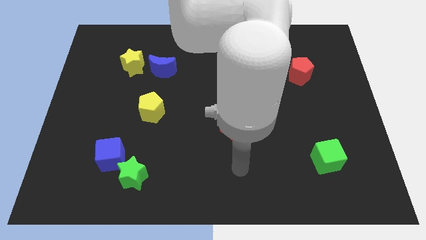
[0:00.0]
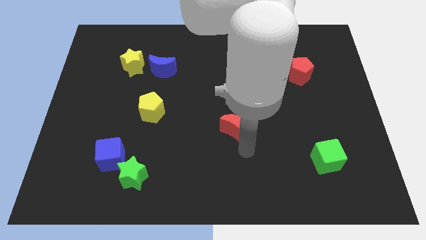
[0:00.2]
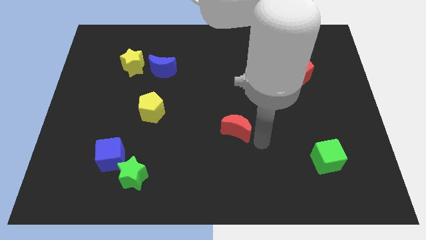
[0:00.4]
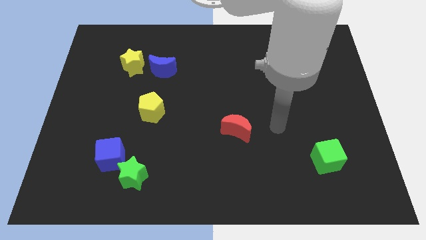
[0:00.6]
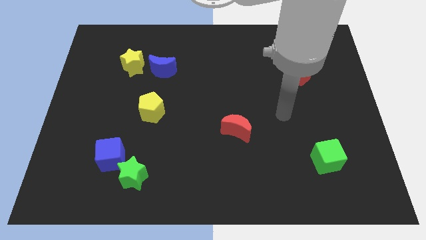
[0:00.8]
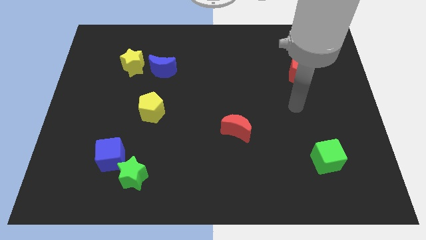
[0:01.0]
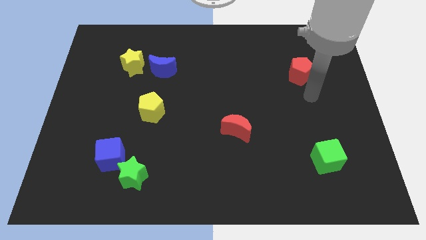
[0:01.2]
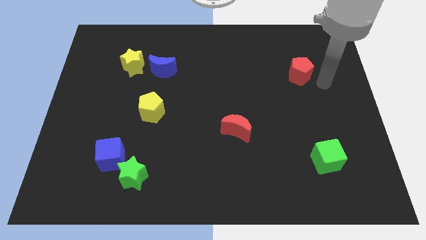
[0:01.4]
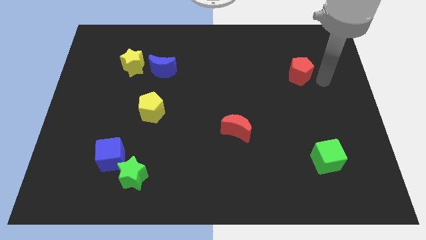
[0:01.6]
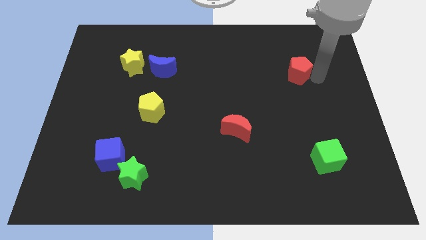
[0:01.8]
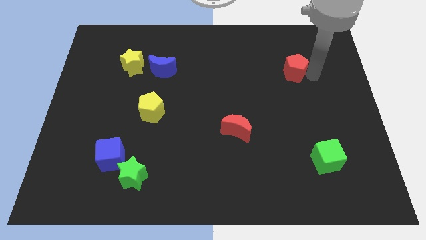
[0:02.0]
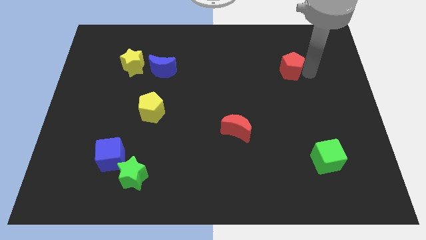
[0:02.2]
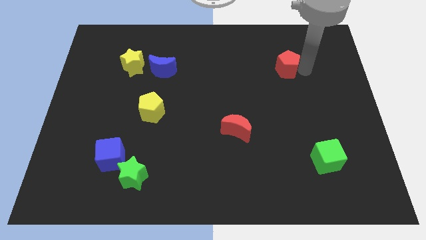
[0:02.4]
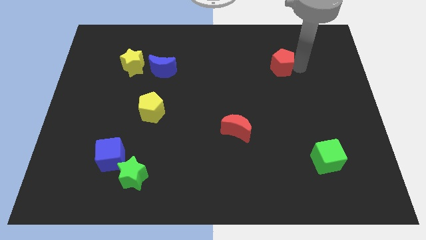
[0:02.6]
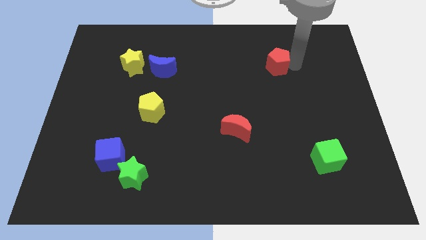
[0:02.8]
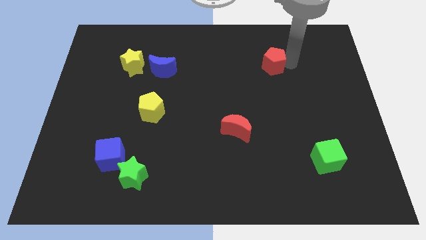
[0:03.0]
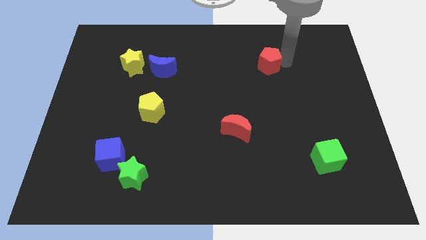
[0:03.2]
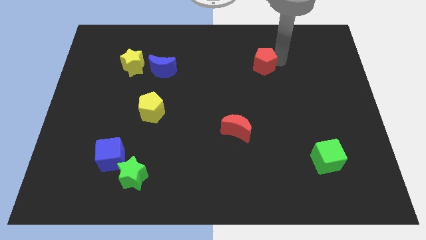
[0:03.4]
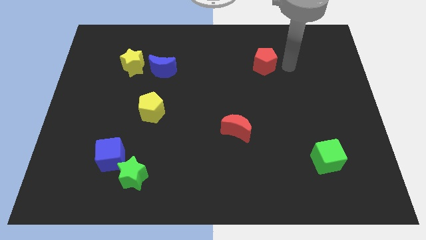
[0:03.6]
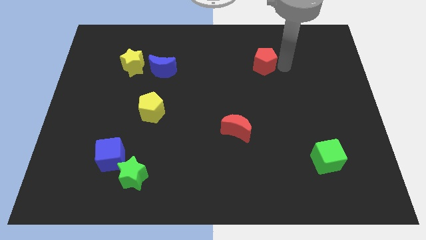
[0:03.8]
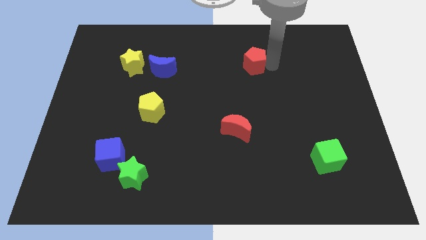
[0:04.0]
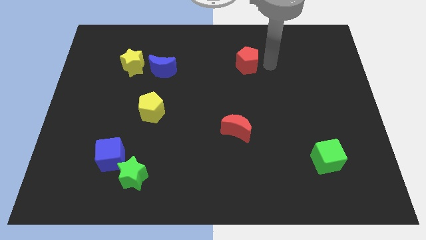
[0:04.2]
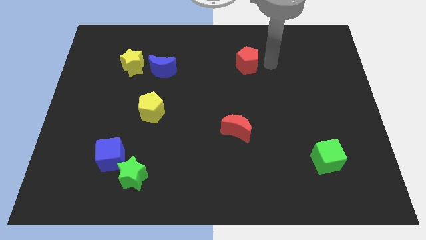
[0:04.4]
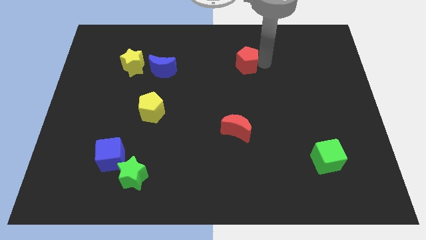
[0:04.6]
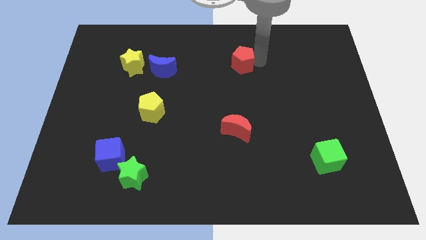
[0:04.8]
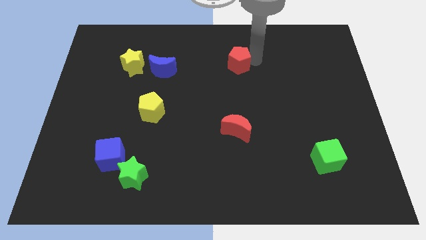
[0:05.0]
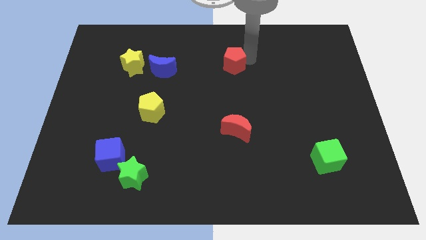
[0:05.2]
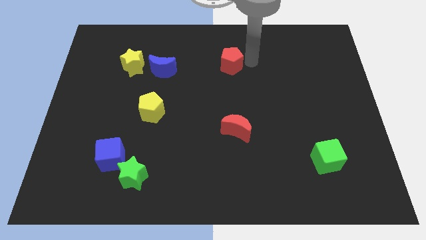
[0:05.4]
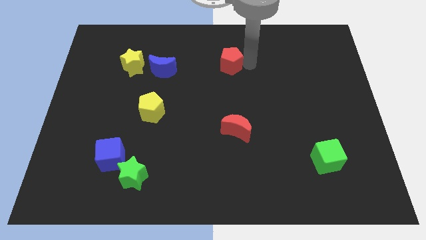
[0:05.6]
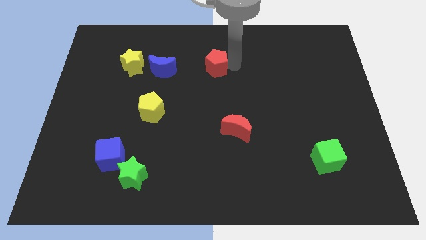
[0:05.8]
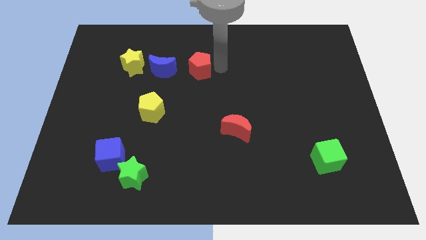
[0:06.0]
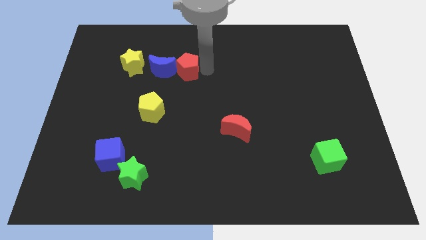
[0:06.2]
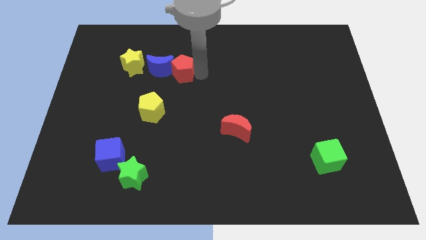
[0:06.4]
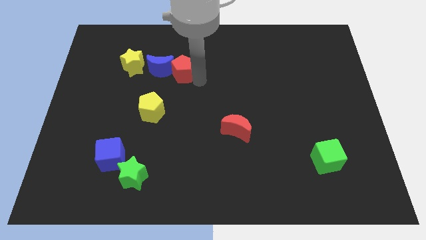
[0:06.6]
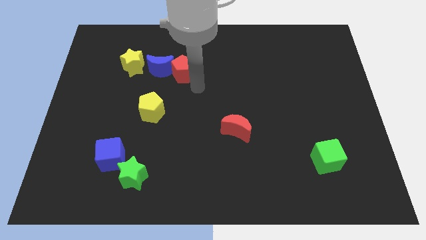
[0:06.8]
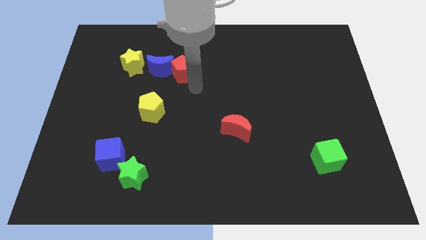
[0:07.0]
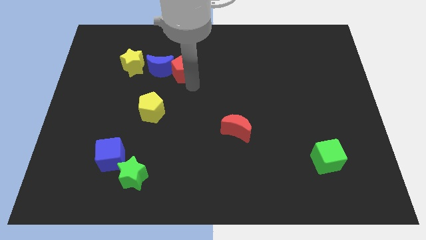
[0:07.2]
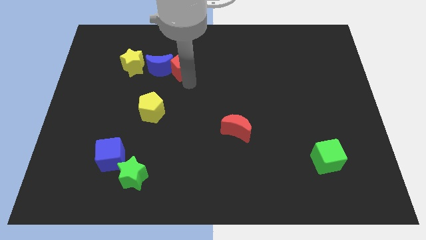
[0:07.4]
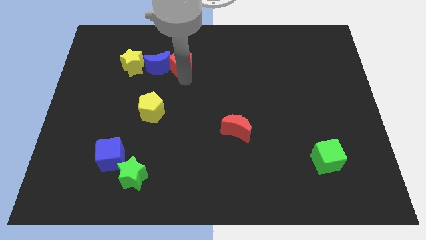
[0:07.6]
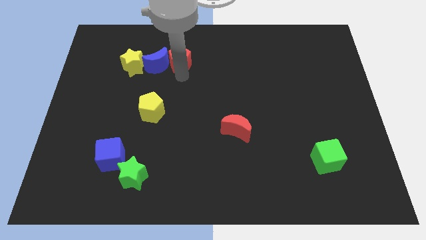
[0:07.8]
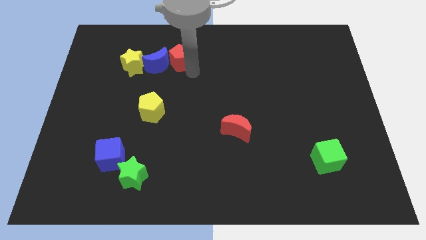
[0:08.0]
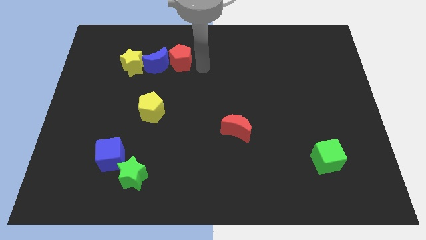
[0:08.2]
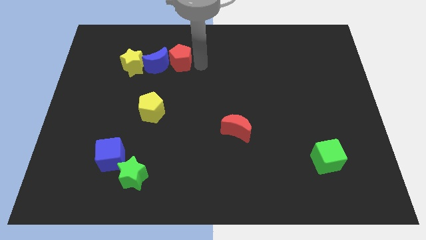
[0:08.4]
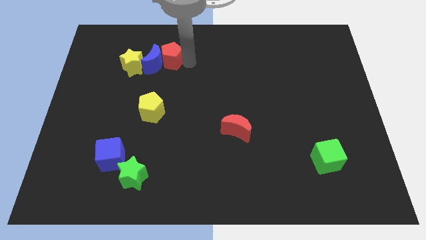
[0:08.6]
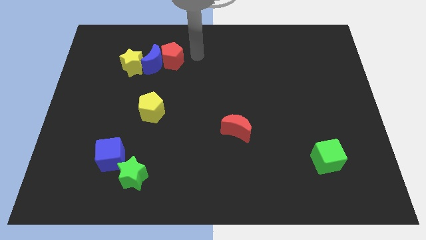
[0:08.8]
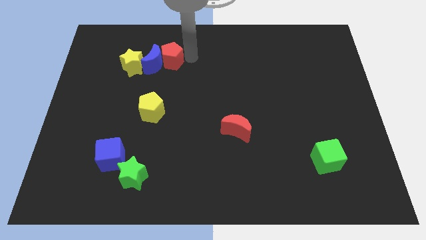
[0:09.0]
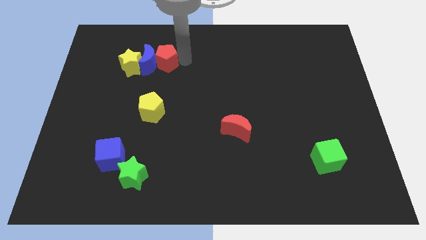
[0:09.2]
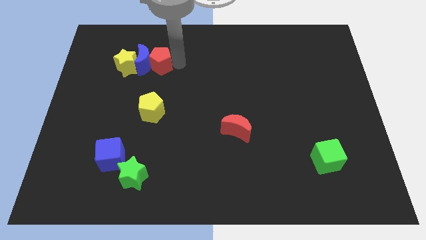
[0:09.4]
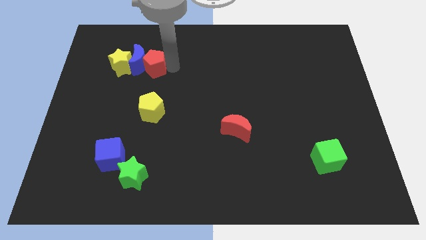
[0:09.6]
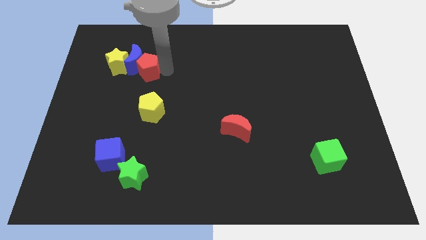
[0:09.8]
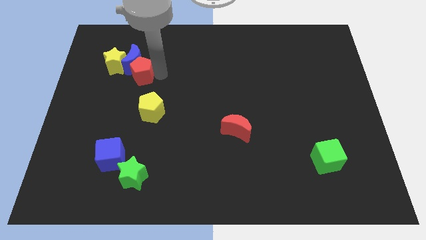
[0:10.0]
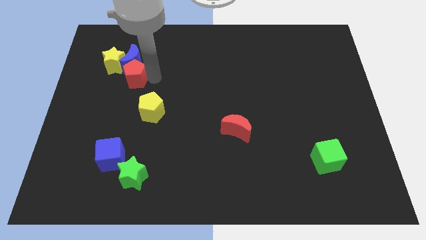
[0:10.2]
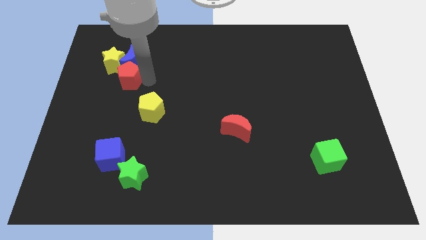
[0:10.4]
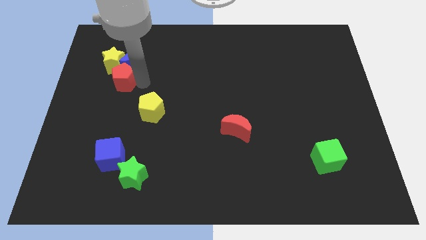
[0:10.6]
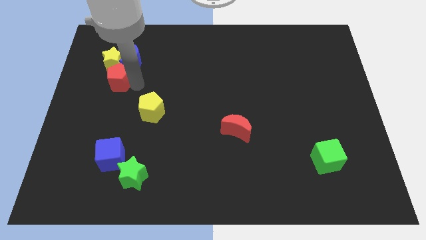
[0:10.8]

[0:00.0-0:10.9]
push the red pentagon close to the yellow star

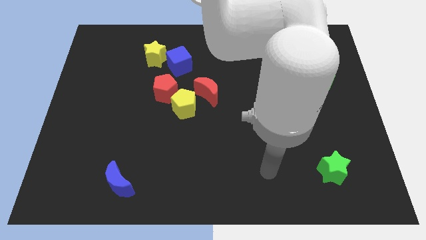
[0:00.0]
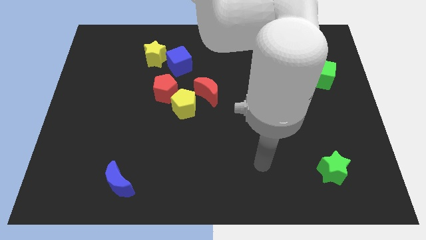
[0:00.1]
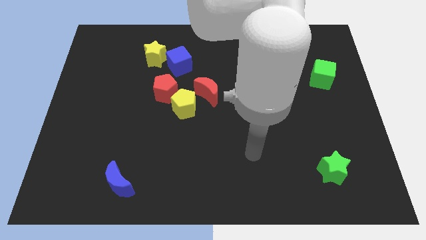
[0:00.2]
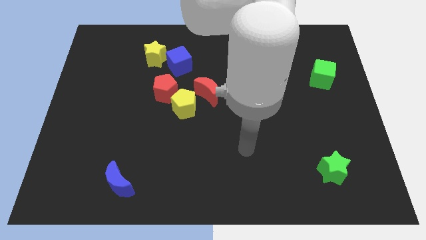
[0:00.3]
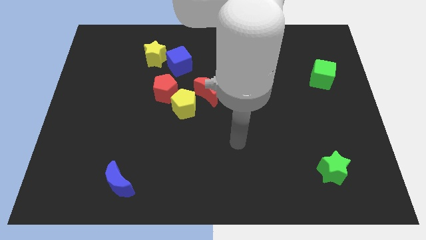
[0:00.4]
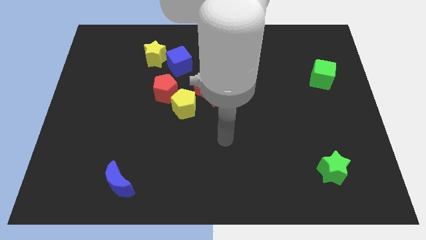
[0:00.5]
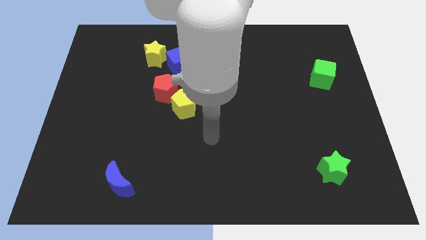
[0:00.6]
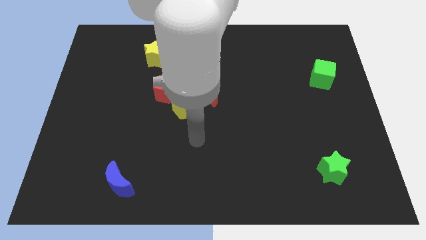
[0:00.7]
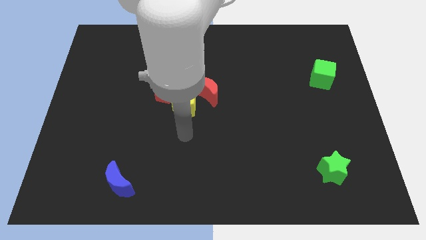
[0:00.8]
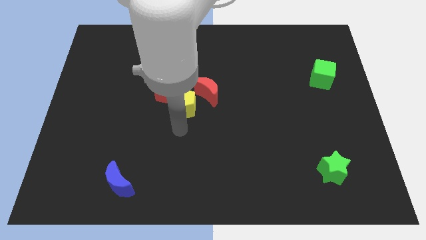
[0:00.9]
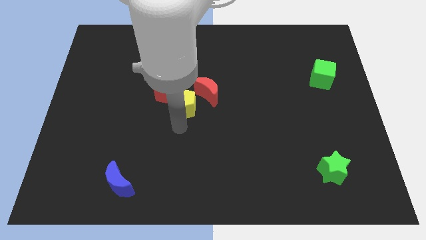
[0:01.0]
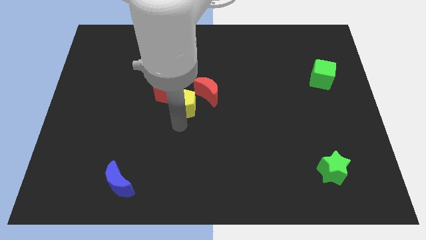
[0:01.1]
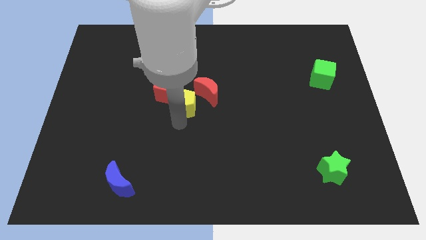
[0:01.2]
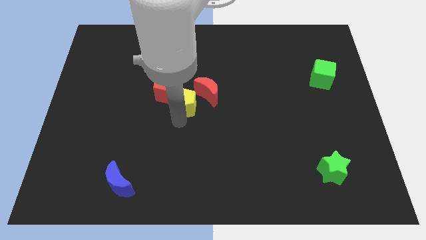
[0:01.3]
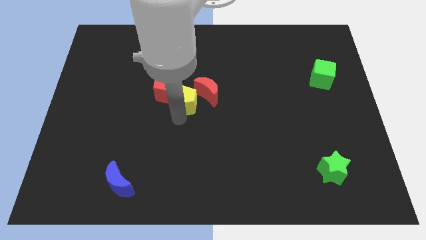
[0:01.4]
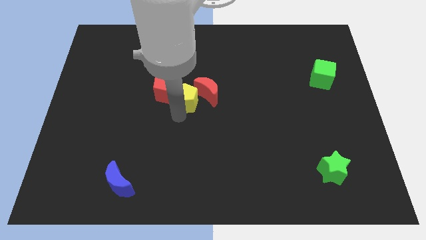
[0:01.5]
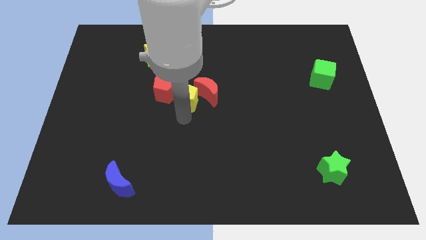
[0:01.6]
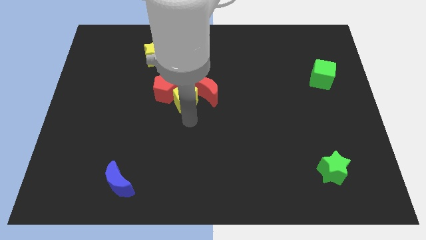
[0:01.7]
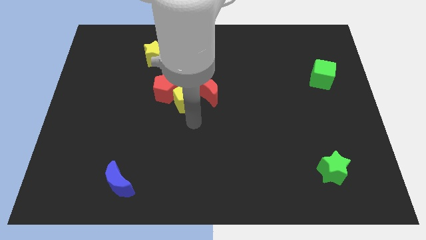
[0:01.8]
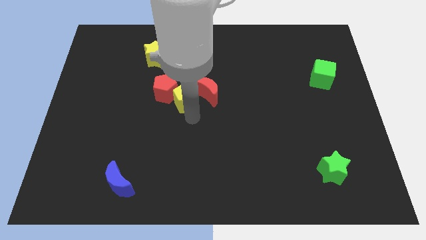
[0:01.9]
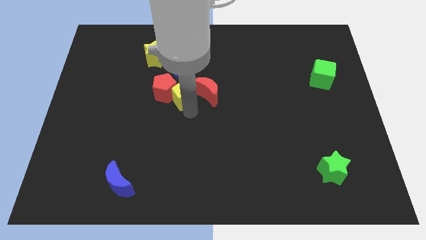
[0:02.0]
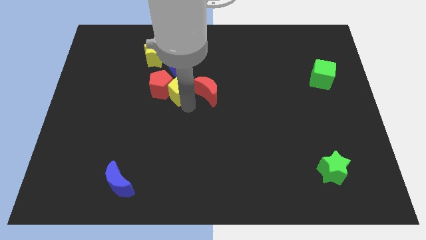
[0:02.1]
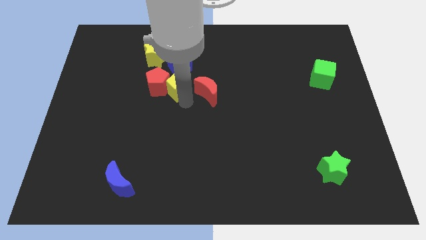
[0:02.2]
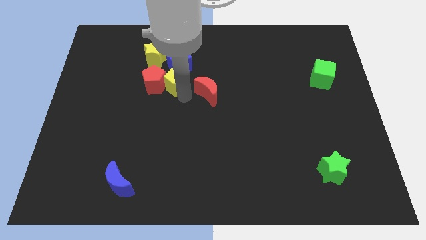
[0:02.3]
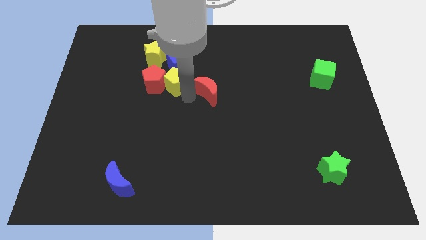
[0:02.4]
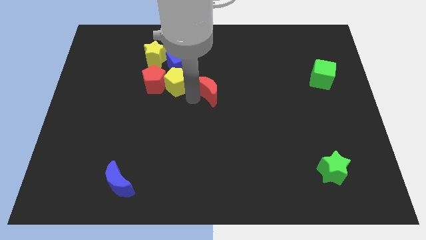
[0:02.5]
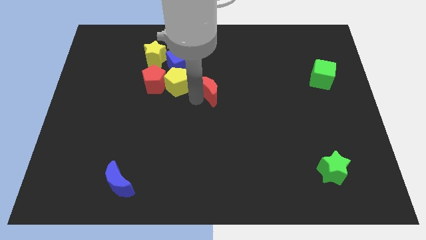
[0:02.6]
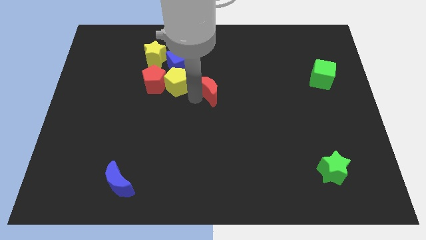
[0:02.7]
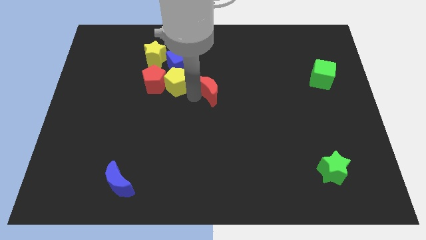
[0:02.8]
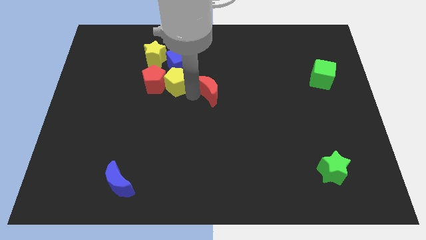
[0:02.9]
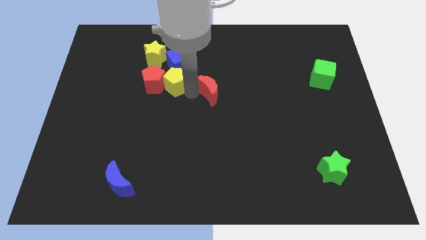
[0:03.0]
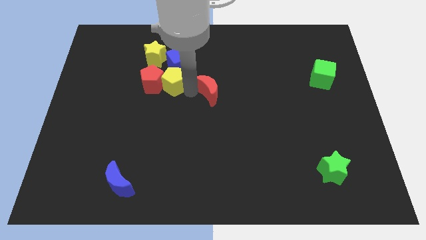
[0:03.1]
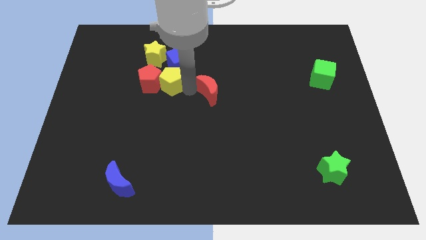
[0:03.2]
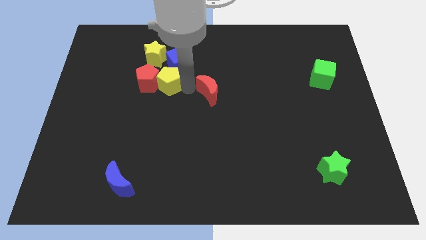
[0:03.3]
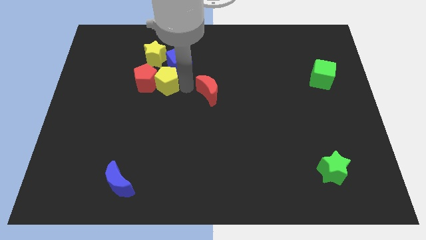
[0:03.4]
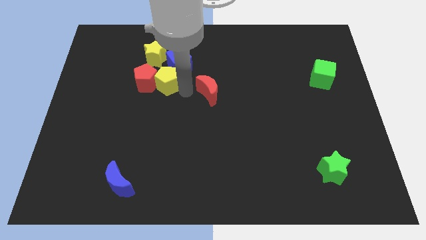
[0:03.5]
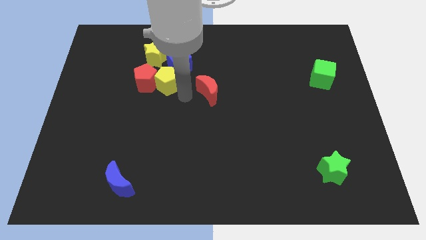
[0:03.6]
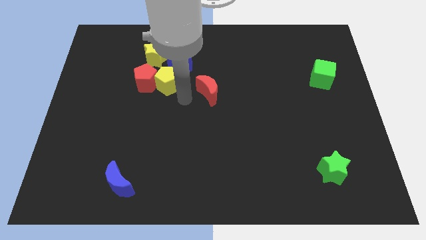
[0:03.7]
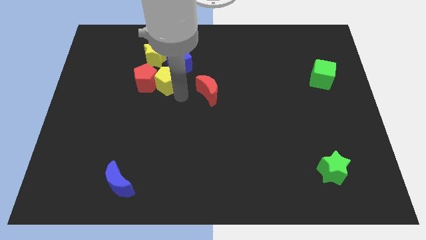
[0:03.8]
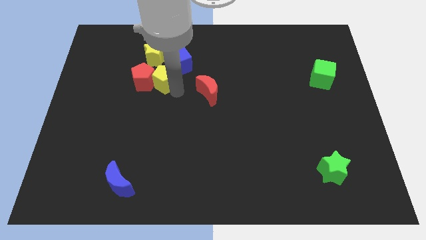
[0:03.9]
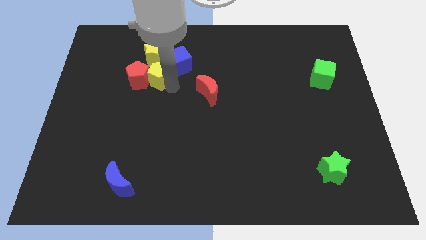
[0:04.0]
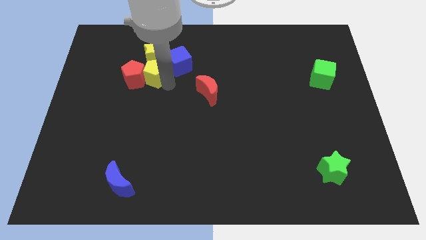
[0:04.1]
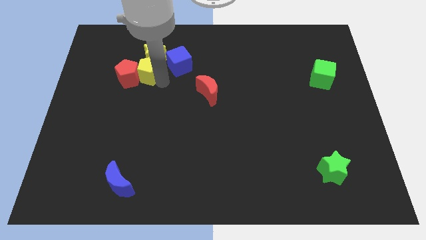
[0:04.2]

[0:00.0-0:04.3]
slide the yellow pentagon close to the yellow star
